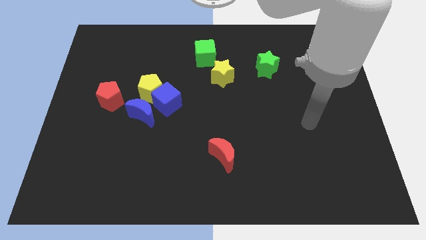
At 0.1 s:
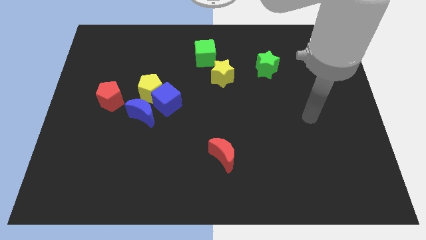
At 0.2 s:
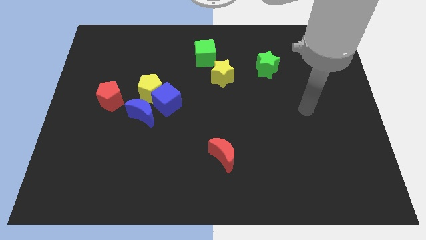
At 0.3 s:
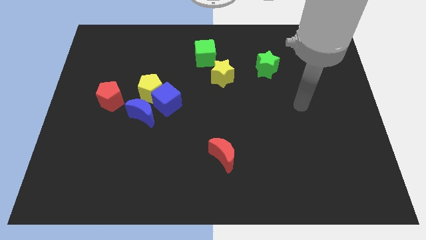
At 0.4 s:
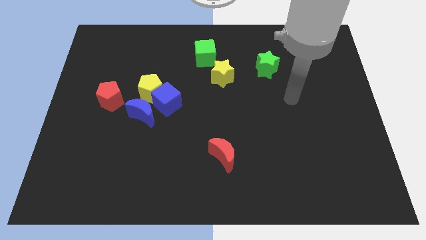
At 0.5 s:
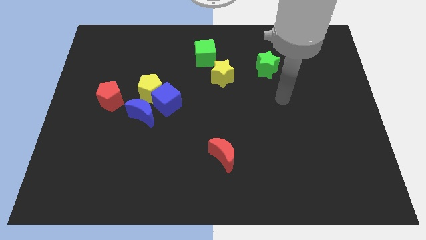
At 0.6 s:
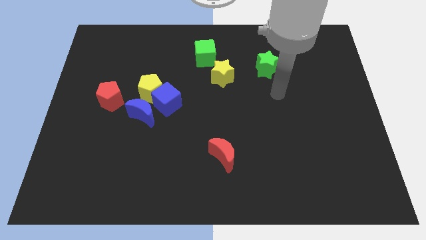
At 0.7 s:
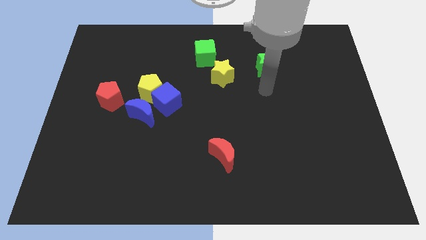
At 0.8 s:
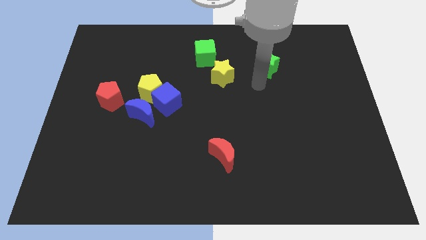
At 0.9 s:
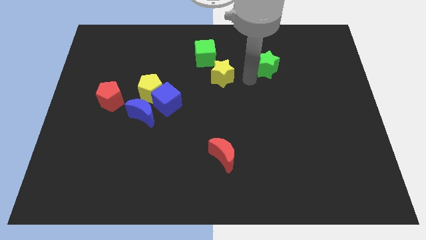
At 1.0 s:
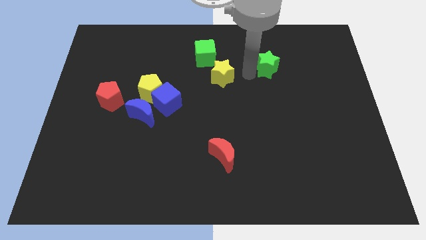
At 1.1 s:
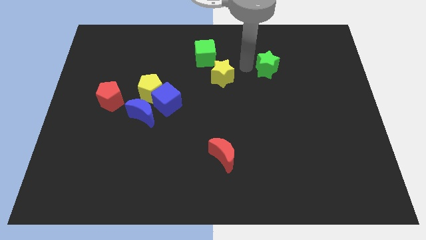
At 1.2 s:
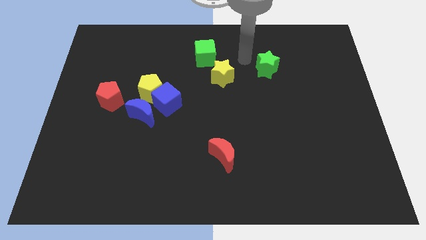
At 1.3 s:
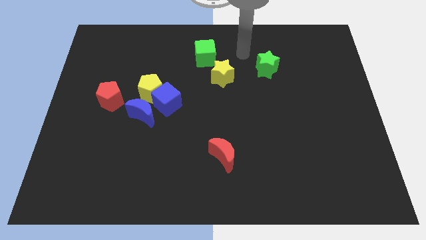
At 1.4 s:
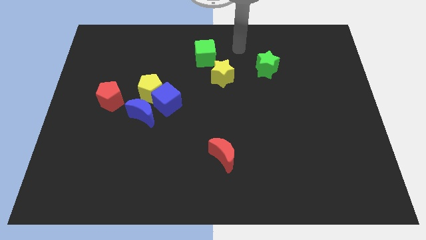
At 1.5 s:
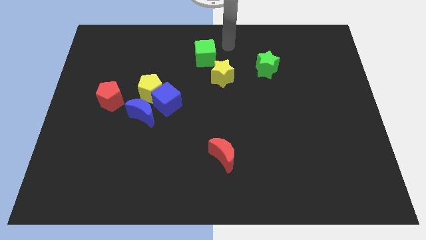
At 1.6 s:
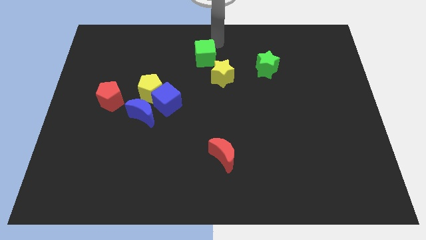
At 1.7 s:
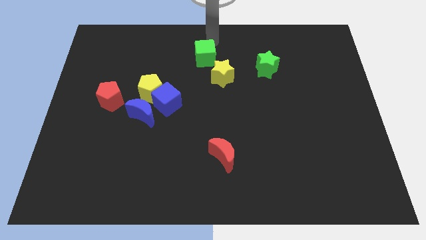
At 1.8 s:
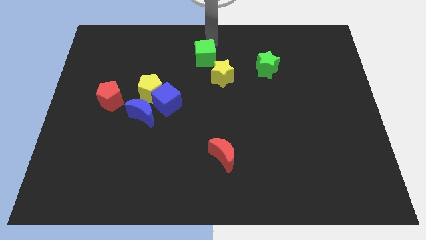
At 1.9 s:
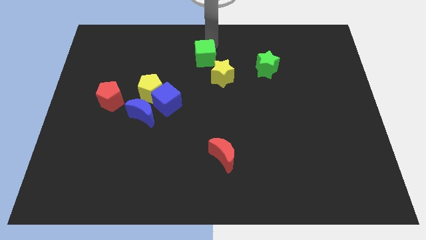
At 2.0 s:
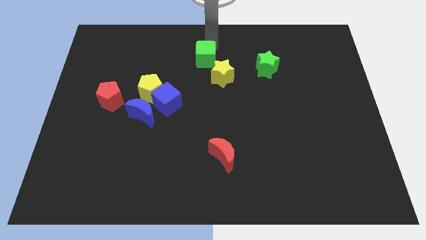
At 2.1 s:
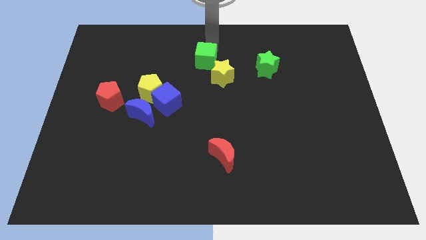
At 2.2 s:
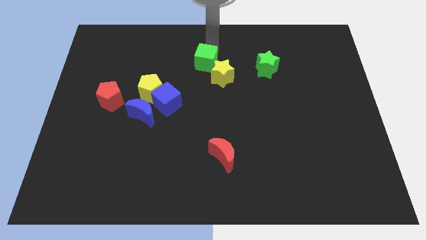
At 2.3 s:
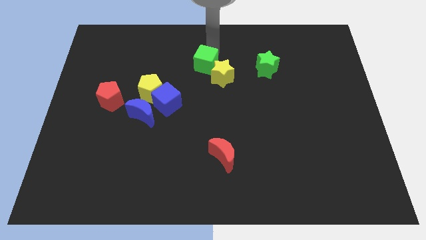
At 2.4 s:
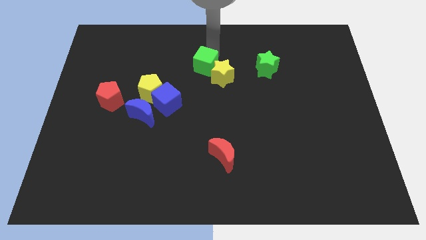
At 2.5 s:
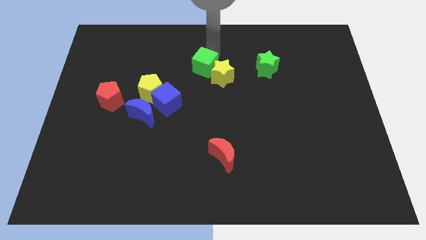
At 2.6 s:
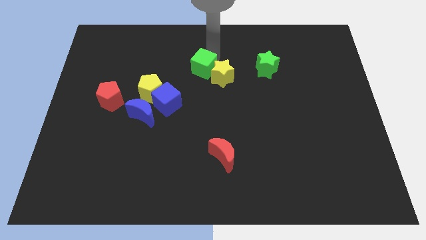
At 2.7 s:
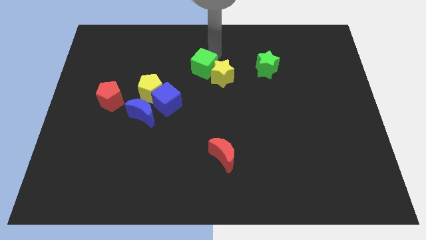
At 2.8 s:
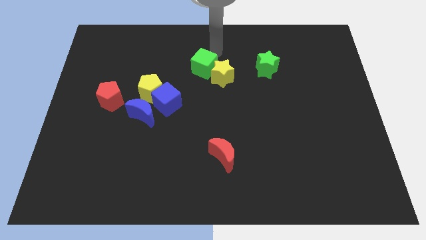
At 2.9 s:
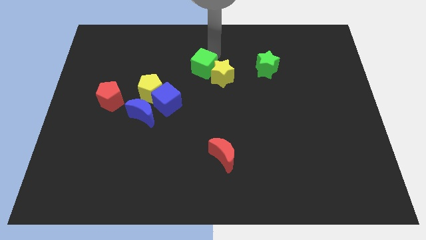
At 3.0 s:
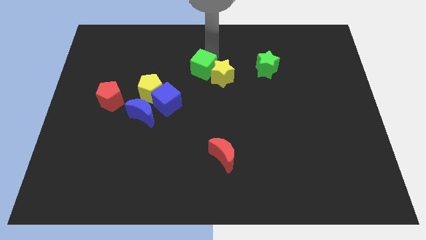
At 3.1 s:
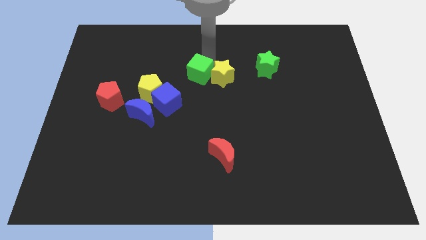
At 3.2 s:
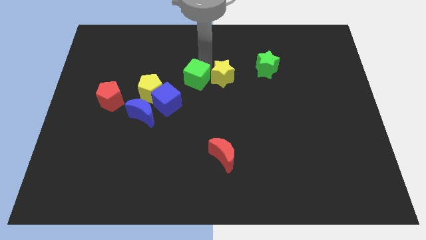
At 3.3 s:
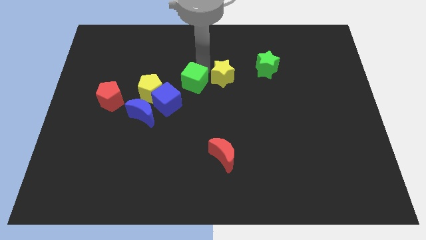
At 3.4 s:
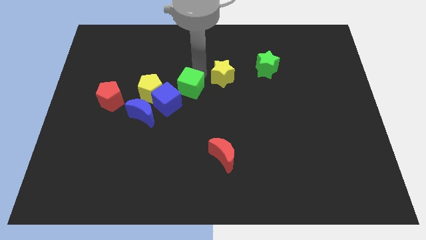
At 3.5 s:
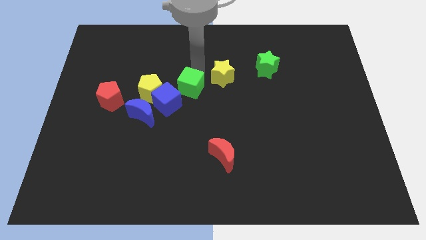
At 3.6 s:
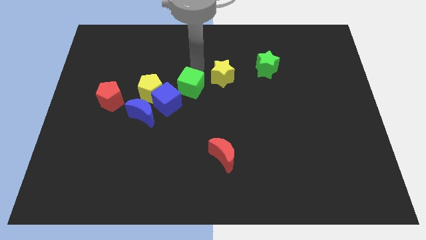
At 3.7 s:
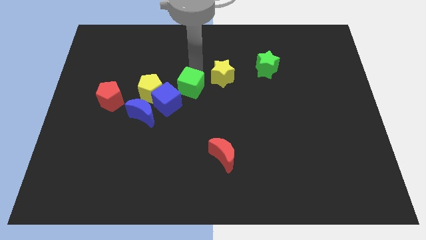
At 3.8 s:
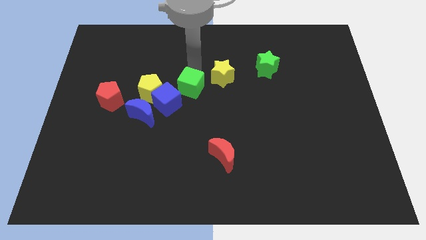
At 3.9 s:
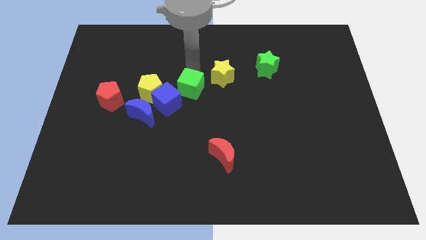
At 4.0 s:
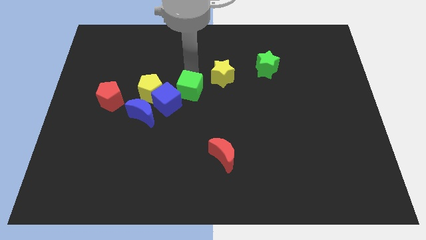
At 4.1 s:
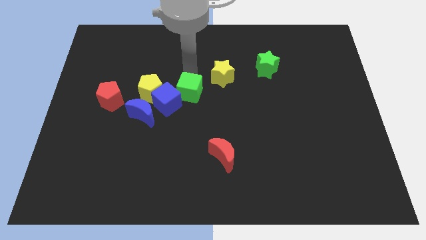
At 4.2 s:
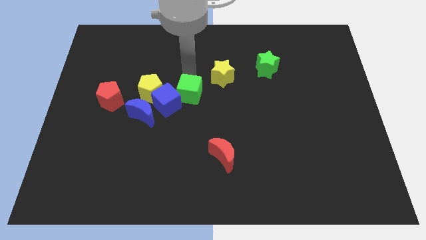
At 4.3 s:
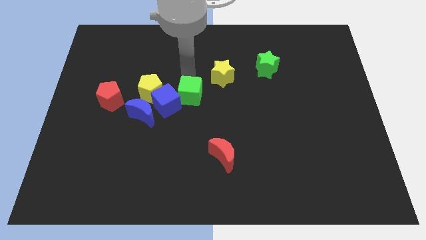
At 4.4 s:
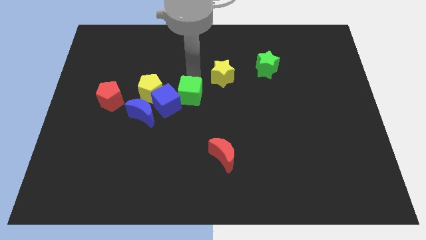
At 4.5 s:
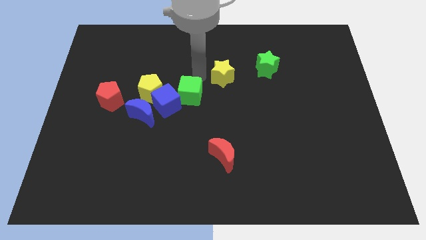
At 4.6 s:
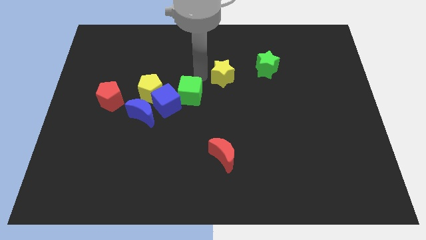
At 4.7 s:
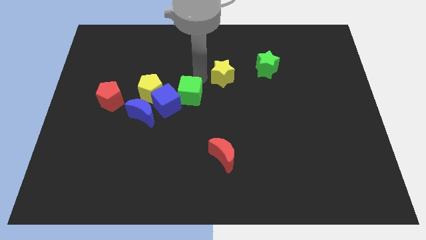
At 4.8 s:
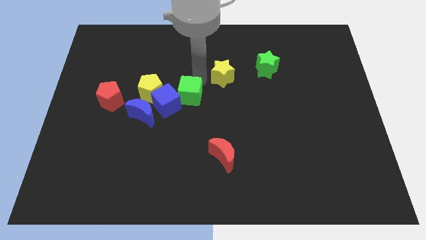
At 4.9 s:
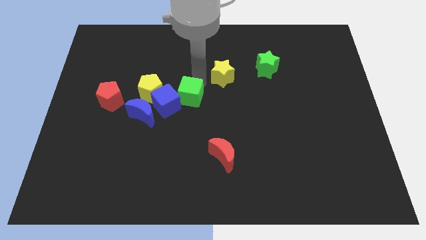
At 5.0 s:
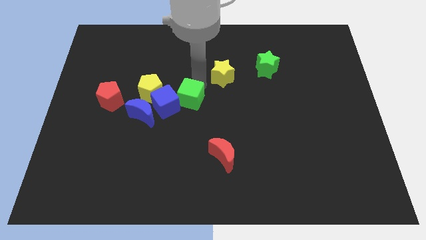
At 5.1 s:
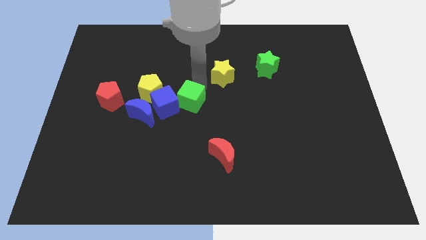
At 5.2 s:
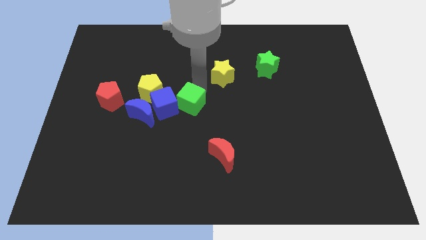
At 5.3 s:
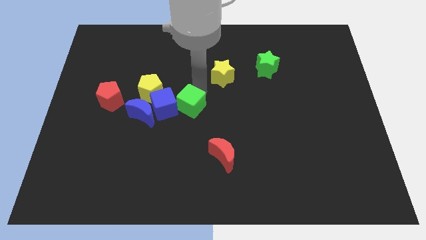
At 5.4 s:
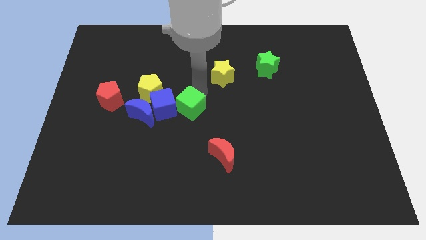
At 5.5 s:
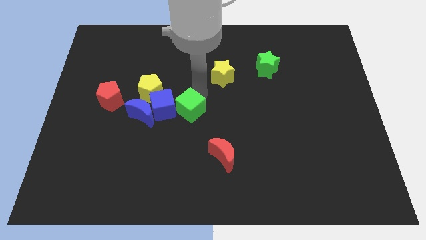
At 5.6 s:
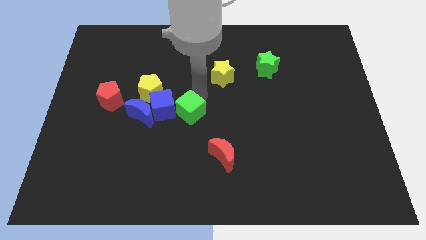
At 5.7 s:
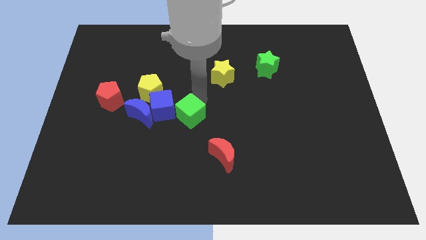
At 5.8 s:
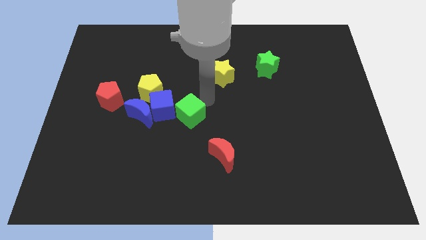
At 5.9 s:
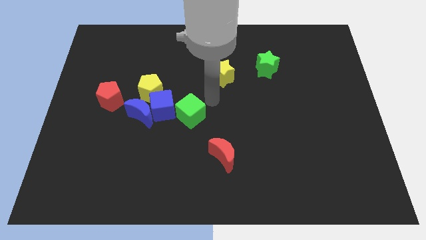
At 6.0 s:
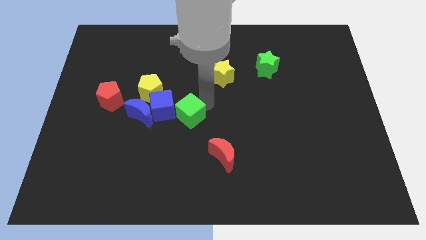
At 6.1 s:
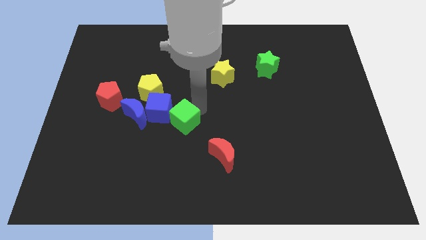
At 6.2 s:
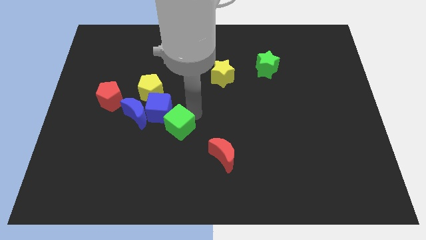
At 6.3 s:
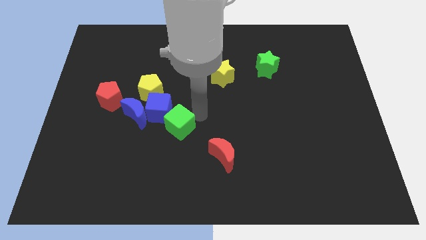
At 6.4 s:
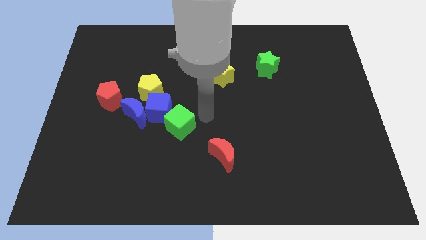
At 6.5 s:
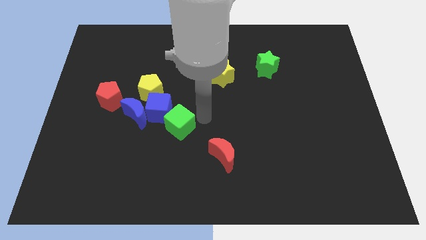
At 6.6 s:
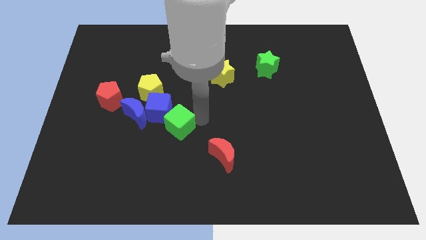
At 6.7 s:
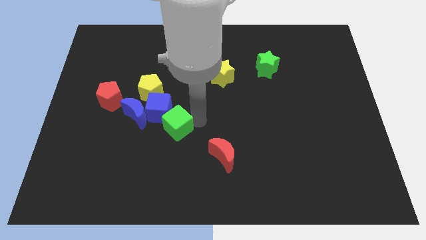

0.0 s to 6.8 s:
move the green cube diagonally down and to the right of the blue moon

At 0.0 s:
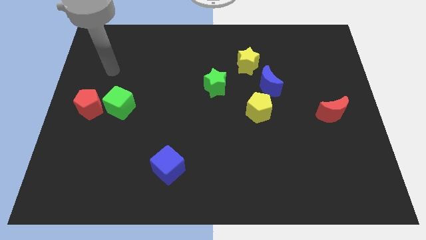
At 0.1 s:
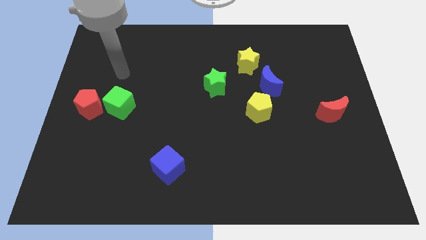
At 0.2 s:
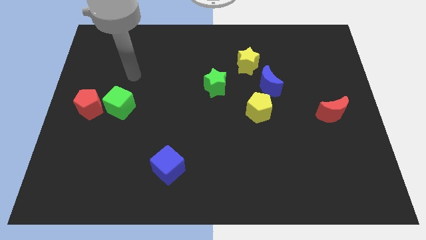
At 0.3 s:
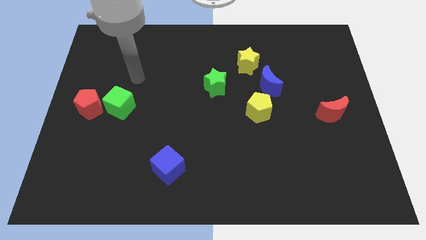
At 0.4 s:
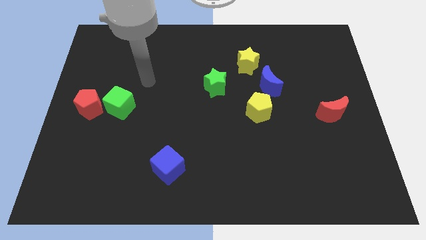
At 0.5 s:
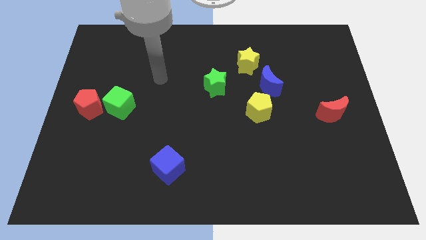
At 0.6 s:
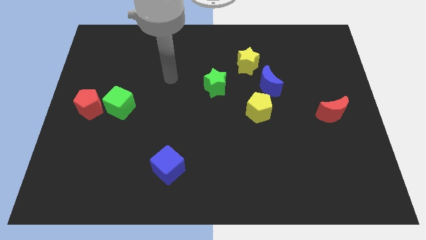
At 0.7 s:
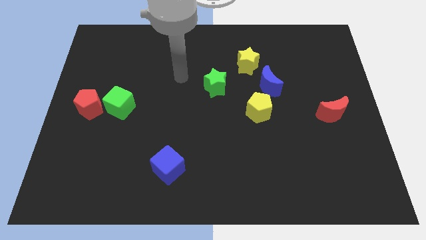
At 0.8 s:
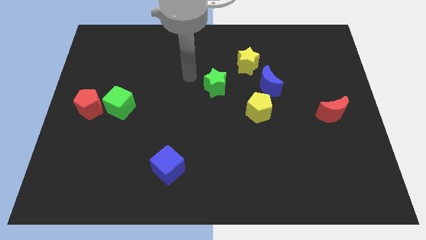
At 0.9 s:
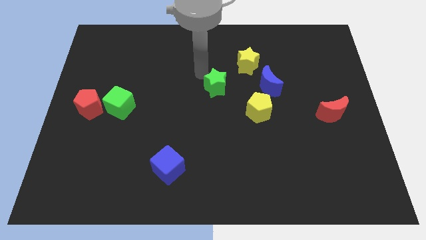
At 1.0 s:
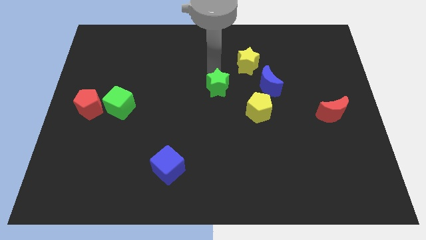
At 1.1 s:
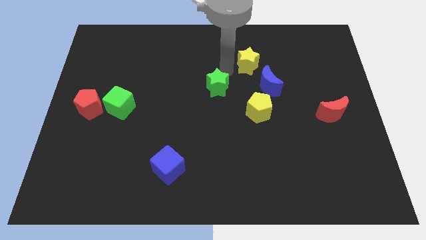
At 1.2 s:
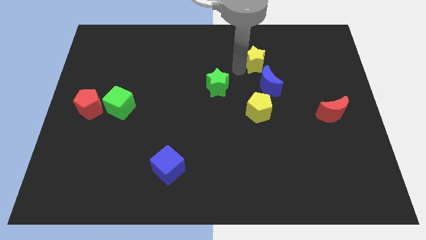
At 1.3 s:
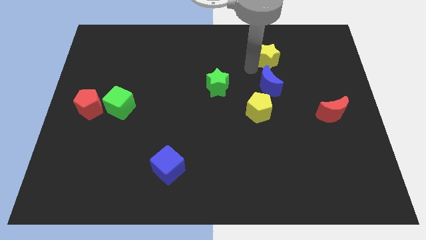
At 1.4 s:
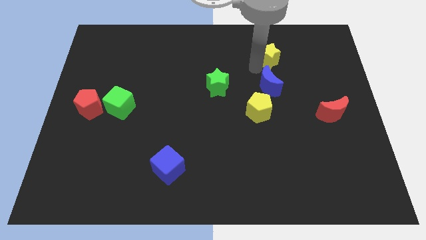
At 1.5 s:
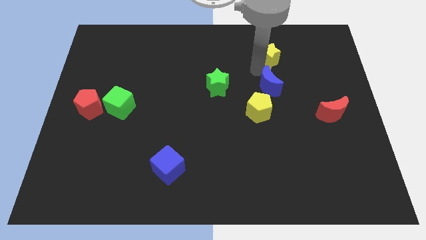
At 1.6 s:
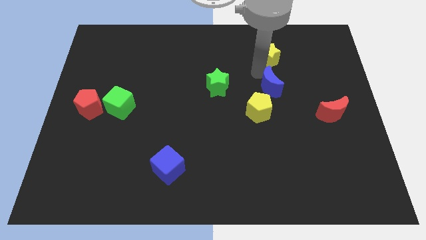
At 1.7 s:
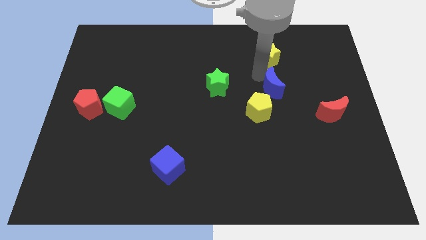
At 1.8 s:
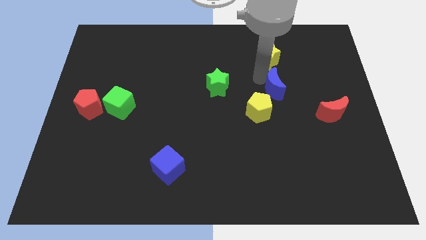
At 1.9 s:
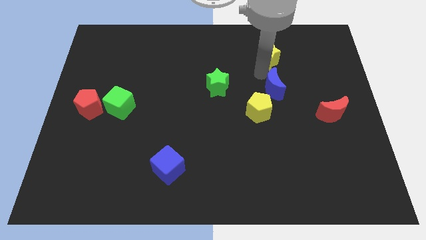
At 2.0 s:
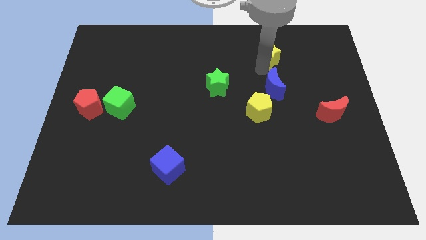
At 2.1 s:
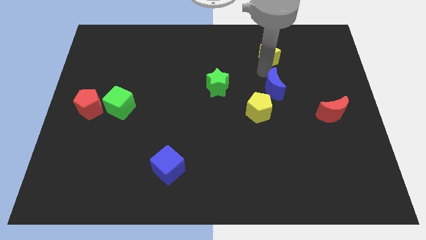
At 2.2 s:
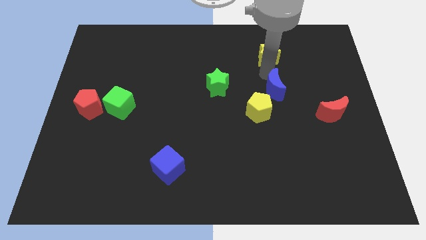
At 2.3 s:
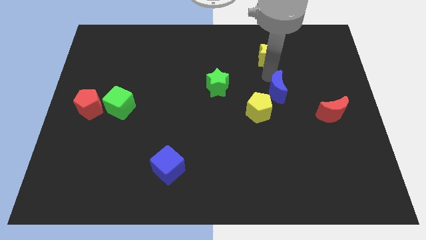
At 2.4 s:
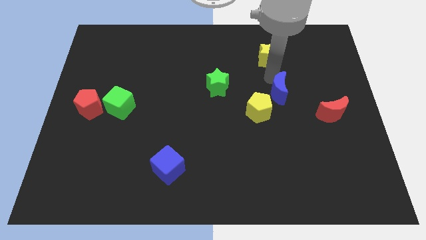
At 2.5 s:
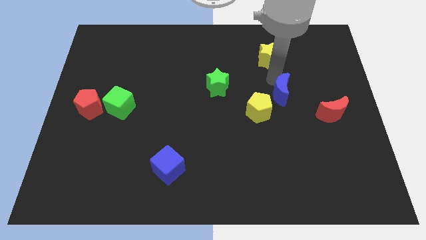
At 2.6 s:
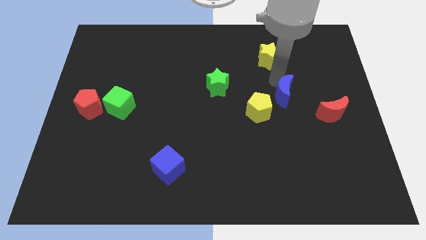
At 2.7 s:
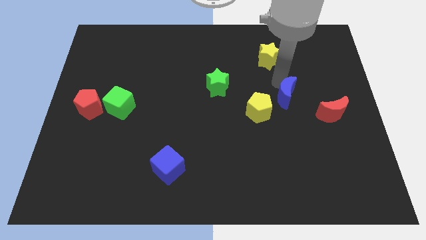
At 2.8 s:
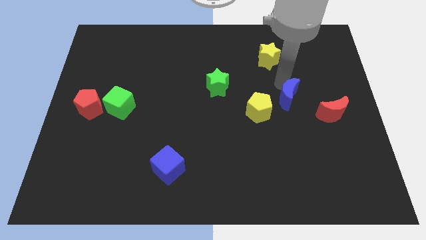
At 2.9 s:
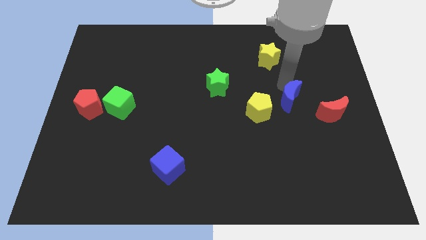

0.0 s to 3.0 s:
move the blue moon to the left side of the red moon
